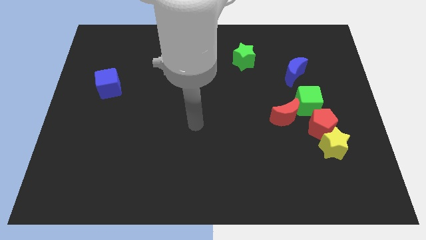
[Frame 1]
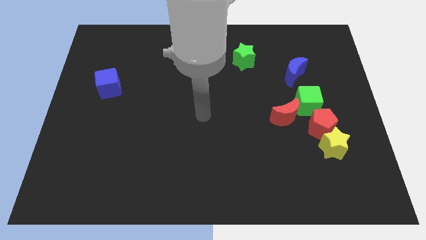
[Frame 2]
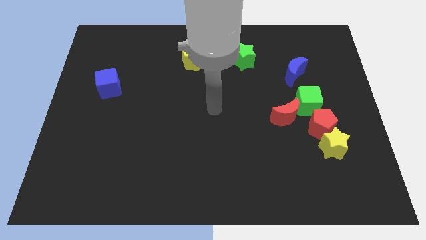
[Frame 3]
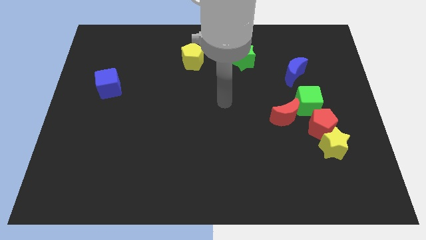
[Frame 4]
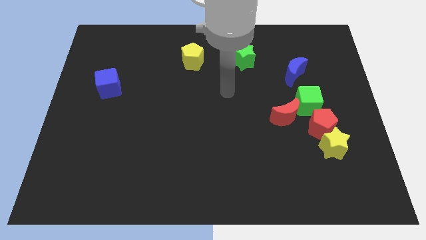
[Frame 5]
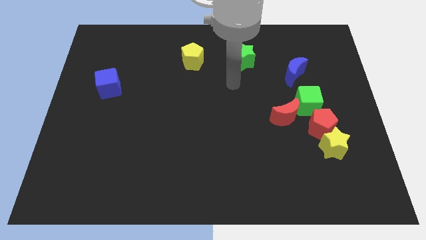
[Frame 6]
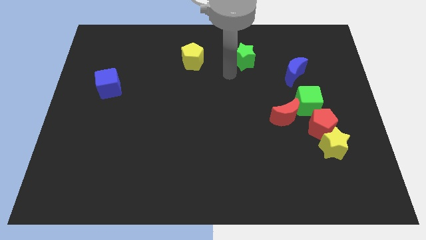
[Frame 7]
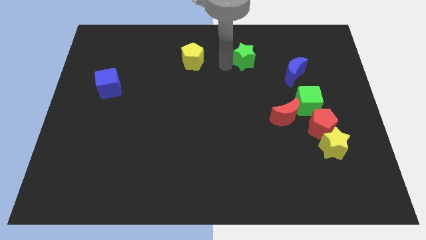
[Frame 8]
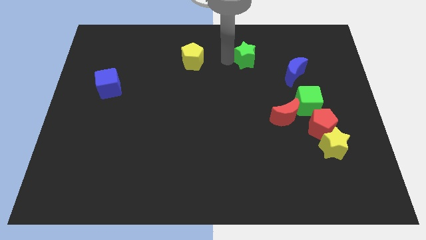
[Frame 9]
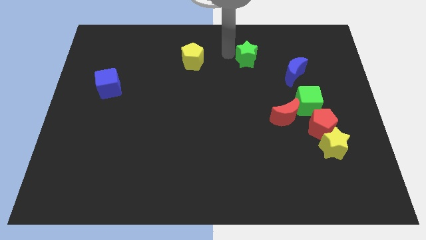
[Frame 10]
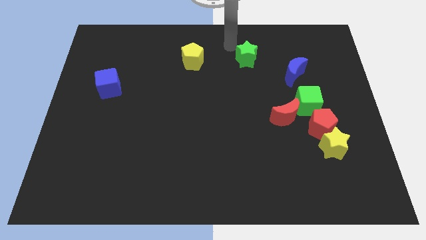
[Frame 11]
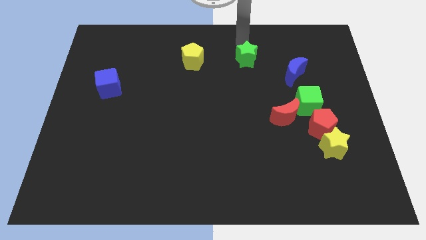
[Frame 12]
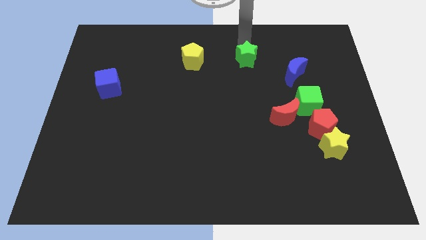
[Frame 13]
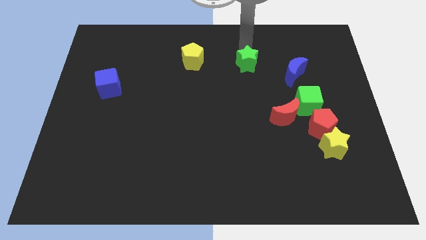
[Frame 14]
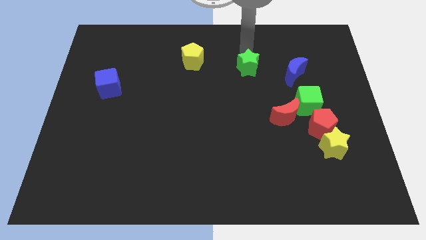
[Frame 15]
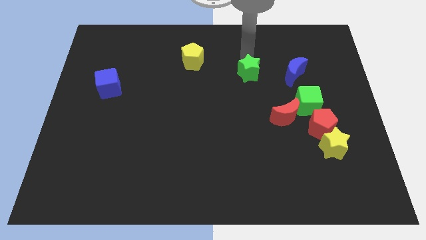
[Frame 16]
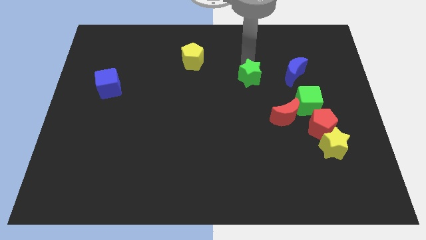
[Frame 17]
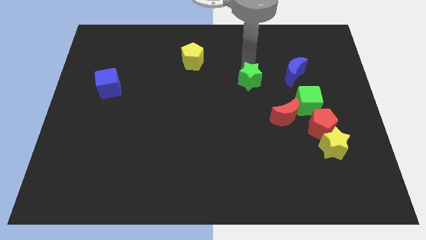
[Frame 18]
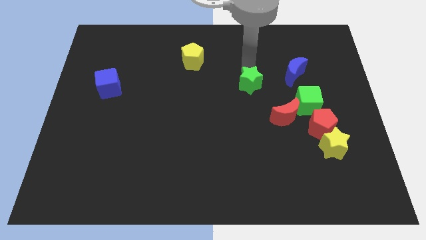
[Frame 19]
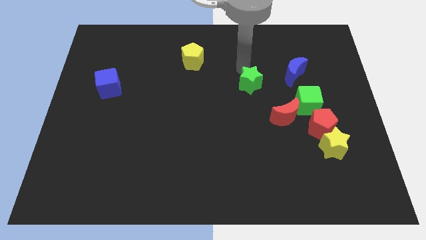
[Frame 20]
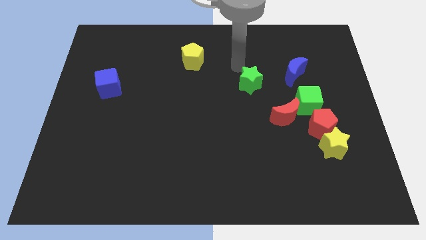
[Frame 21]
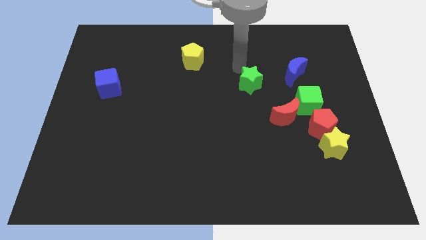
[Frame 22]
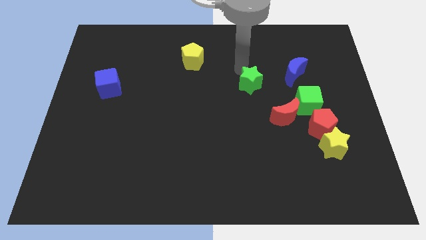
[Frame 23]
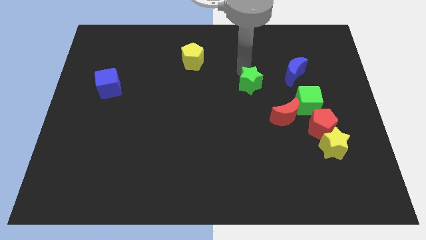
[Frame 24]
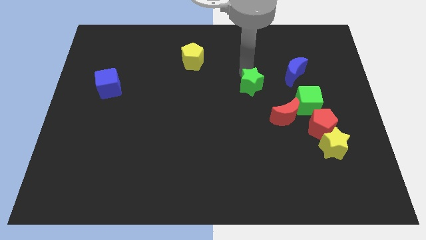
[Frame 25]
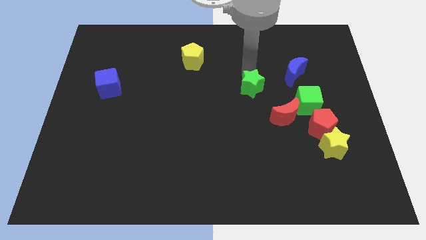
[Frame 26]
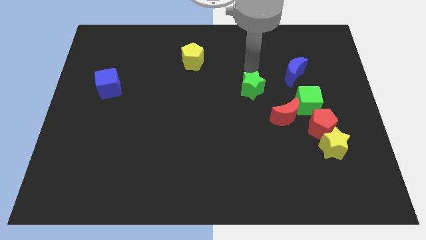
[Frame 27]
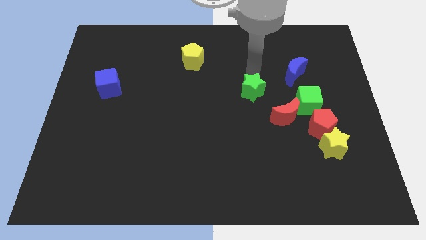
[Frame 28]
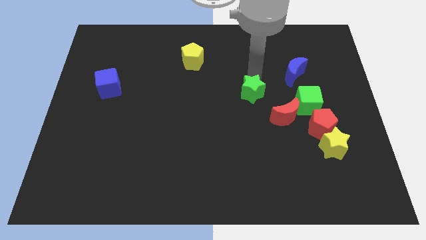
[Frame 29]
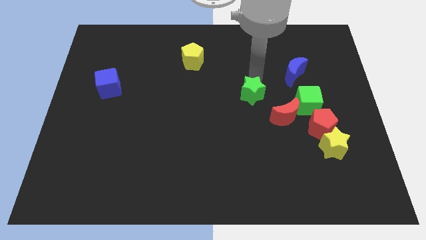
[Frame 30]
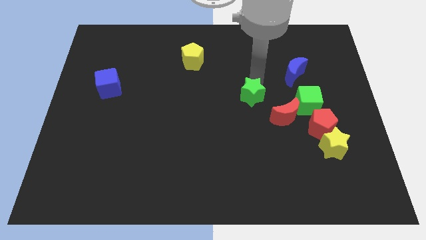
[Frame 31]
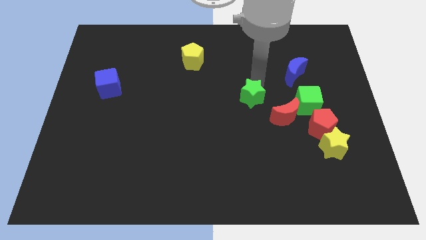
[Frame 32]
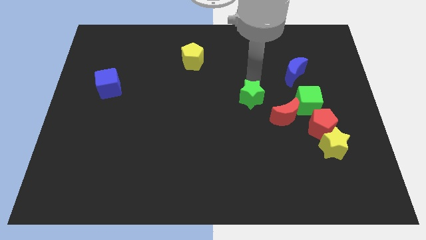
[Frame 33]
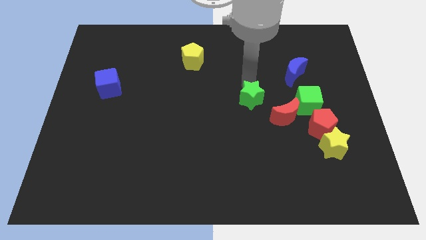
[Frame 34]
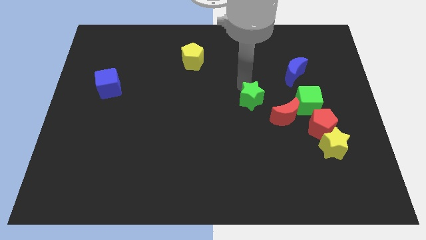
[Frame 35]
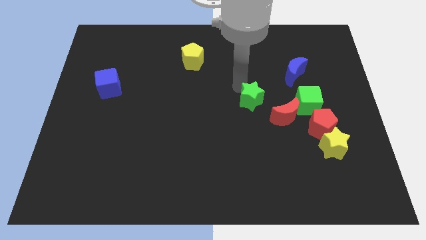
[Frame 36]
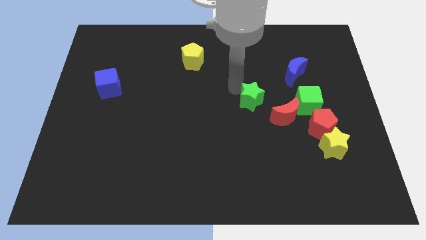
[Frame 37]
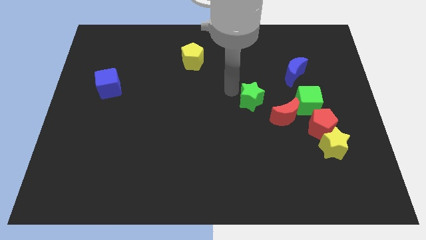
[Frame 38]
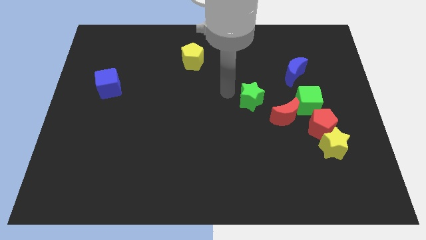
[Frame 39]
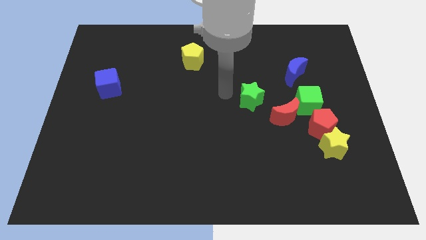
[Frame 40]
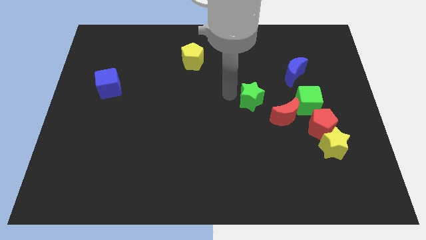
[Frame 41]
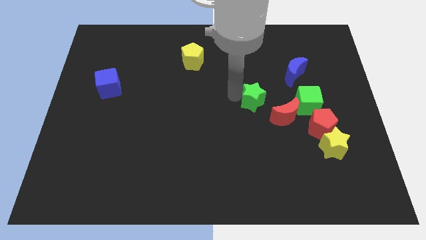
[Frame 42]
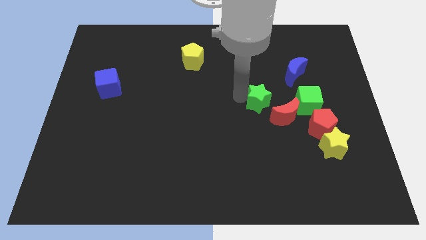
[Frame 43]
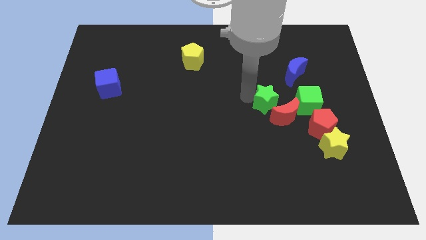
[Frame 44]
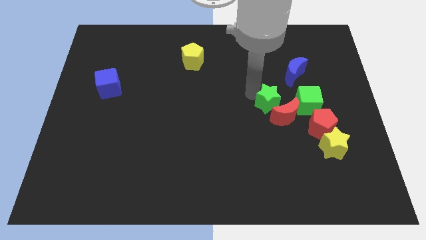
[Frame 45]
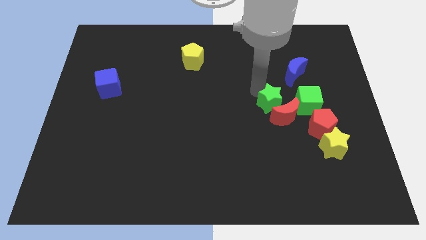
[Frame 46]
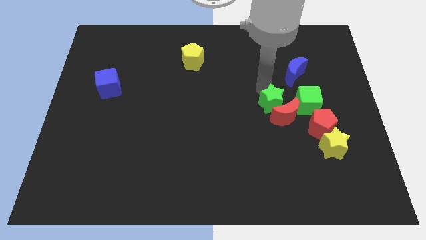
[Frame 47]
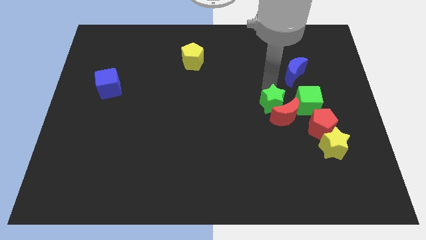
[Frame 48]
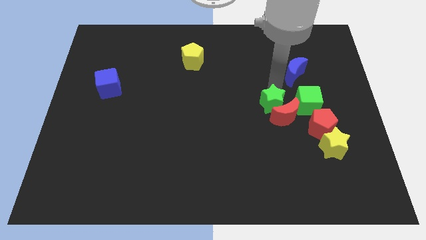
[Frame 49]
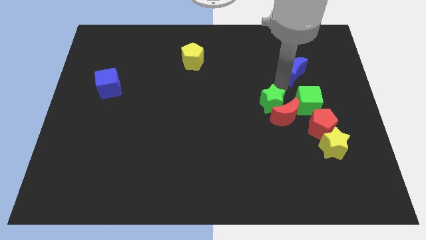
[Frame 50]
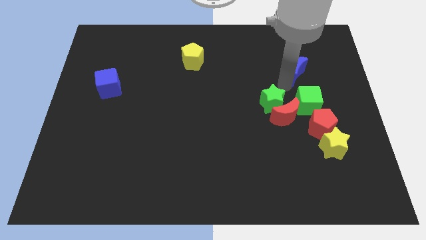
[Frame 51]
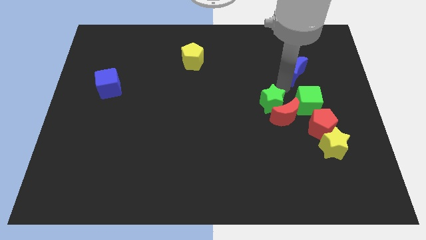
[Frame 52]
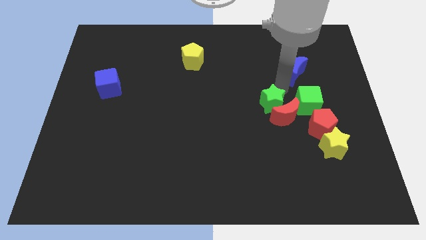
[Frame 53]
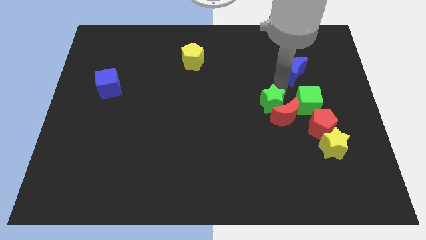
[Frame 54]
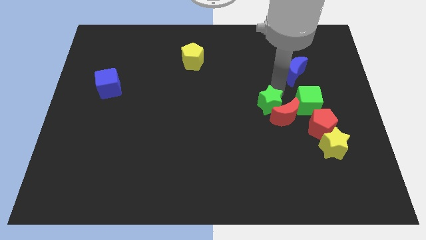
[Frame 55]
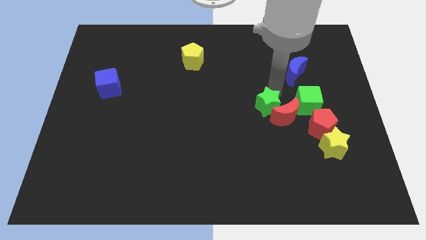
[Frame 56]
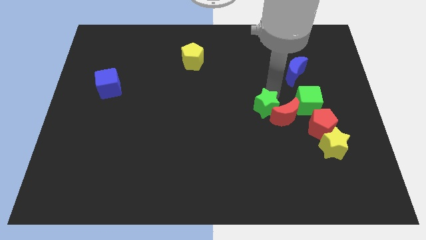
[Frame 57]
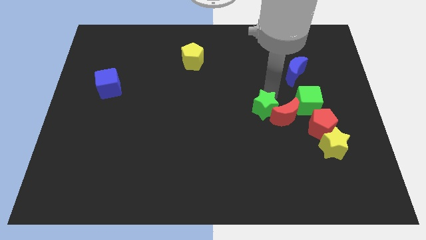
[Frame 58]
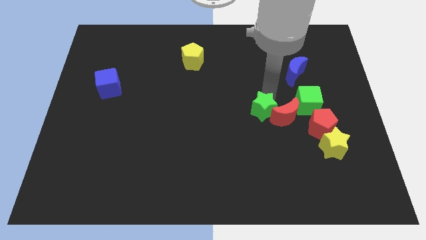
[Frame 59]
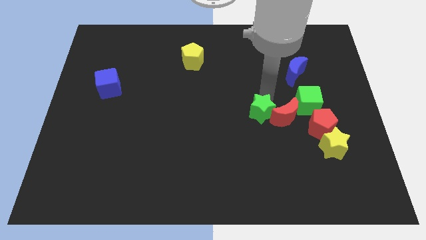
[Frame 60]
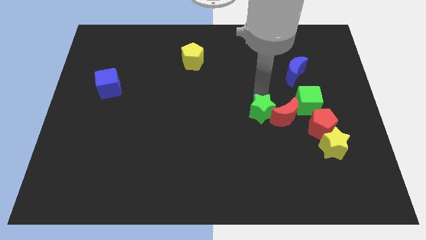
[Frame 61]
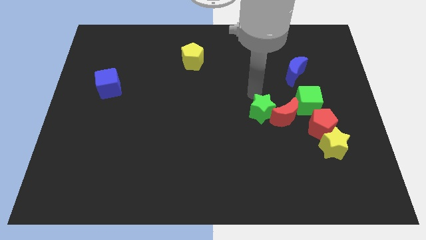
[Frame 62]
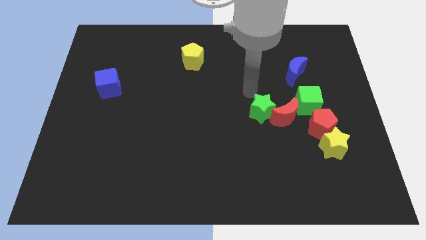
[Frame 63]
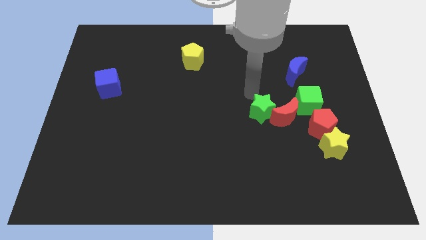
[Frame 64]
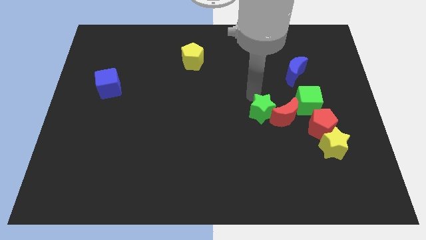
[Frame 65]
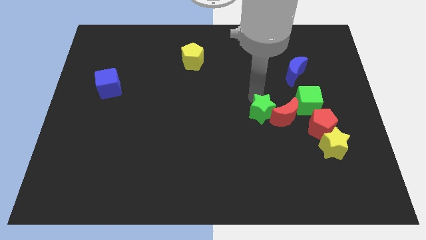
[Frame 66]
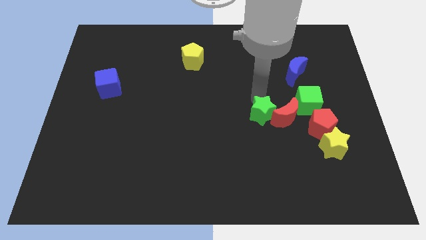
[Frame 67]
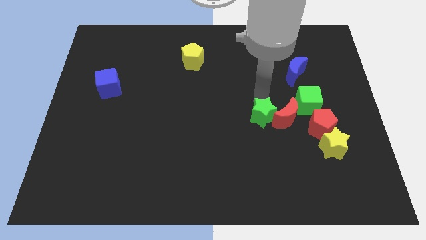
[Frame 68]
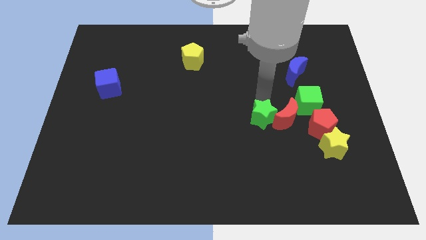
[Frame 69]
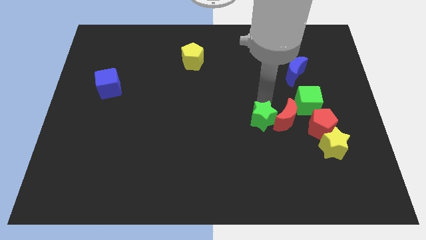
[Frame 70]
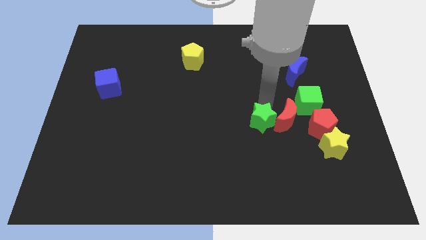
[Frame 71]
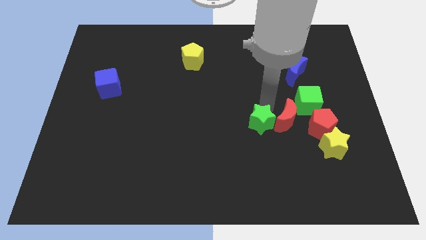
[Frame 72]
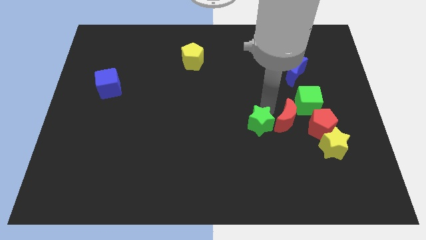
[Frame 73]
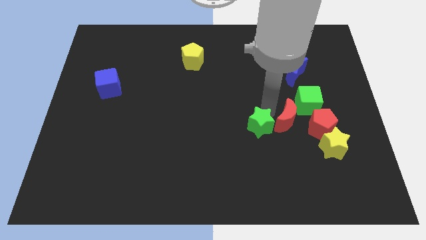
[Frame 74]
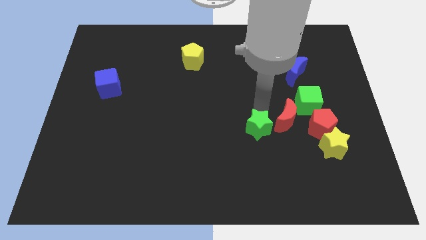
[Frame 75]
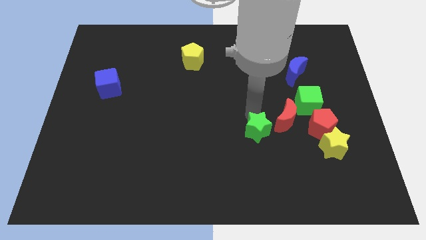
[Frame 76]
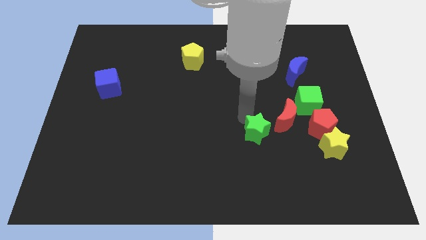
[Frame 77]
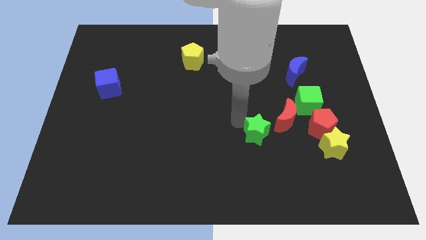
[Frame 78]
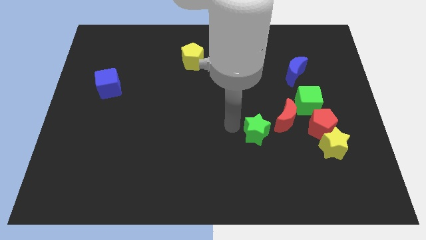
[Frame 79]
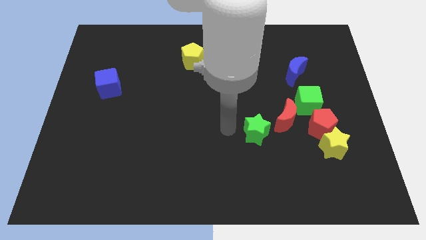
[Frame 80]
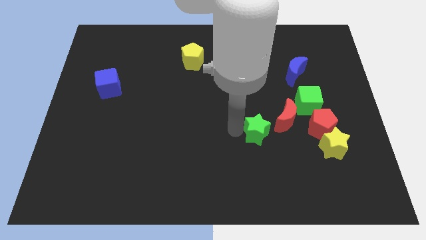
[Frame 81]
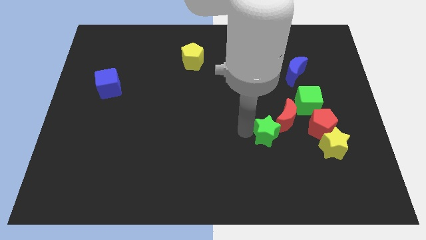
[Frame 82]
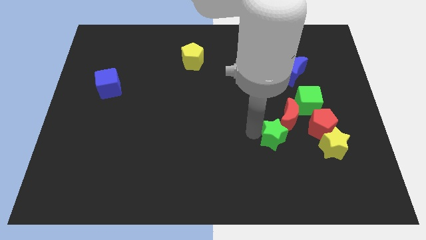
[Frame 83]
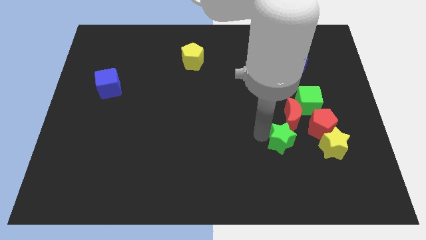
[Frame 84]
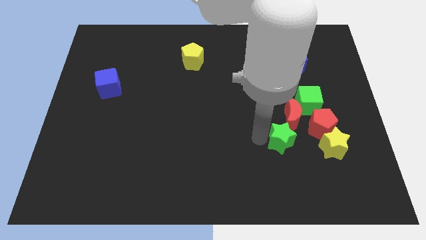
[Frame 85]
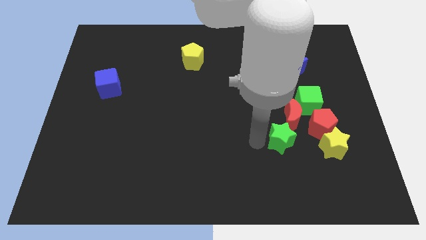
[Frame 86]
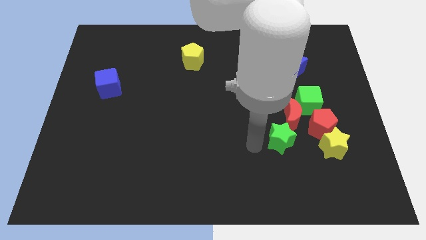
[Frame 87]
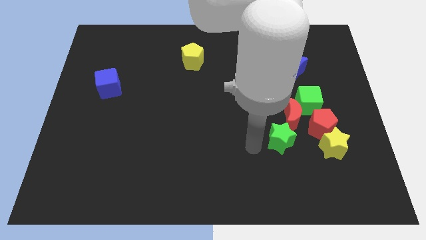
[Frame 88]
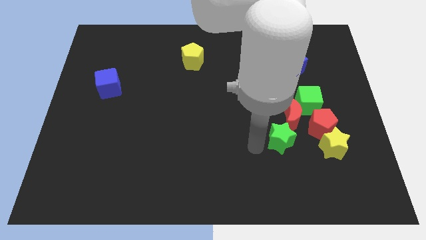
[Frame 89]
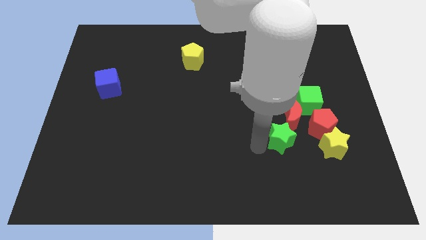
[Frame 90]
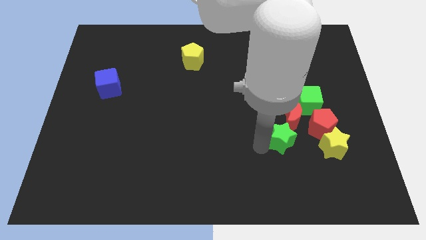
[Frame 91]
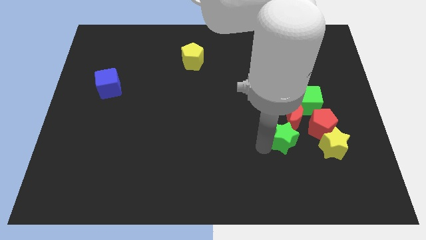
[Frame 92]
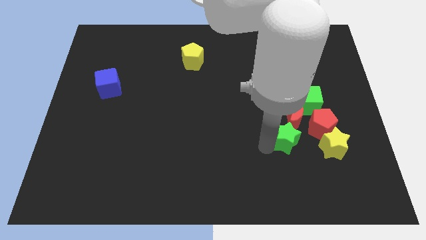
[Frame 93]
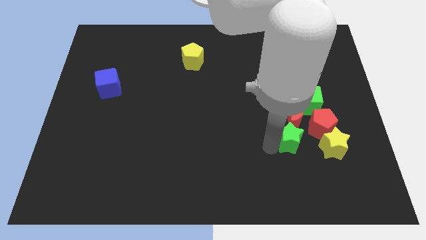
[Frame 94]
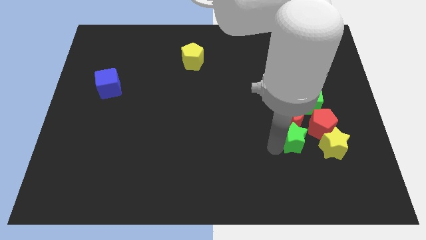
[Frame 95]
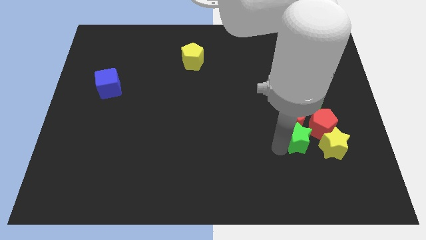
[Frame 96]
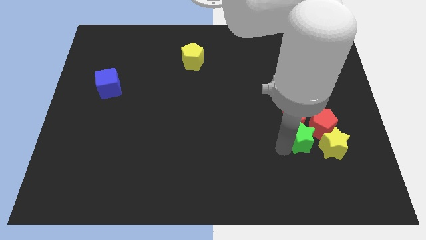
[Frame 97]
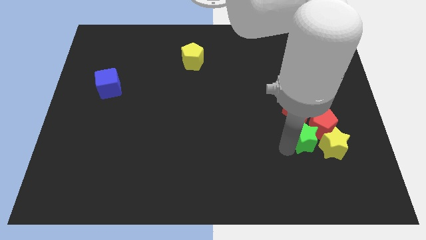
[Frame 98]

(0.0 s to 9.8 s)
move the green star to the red pentagon
